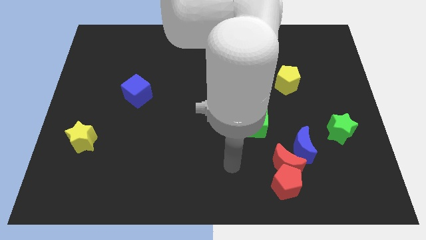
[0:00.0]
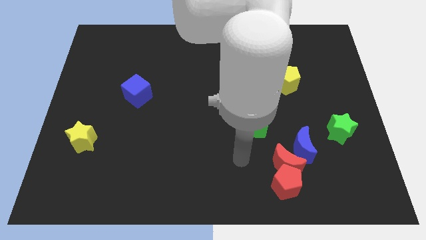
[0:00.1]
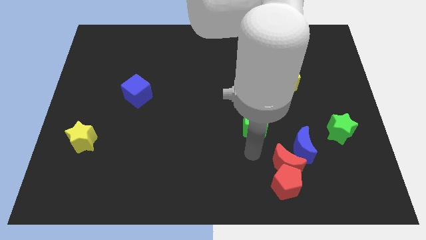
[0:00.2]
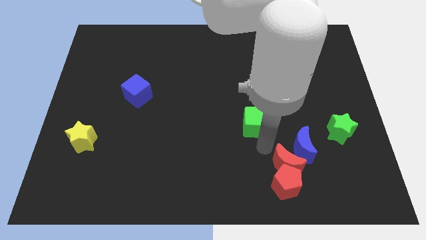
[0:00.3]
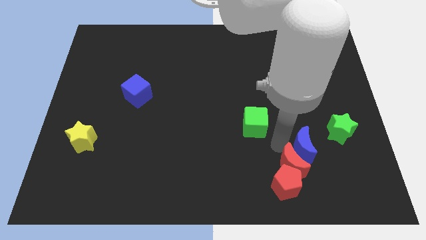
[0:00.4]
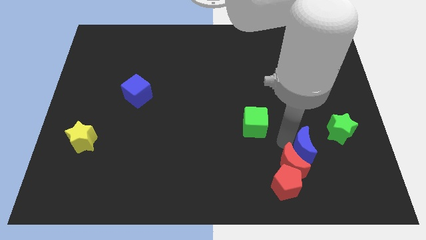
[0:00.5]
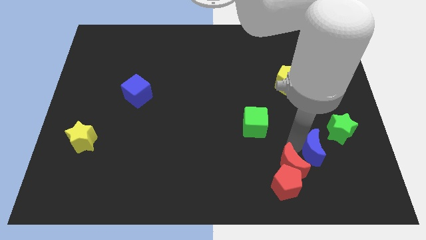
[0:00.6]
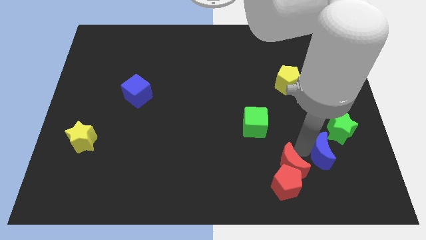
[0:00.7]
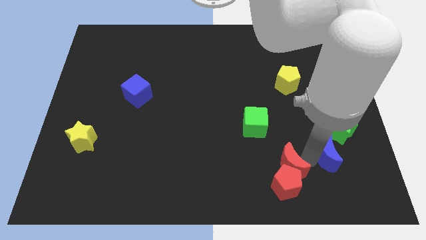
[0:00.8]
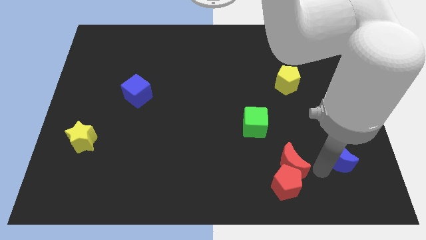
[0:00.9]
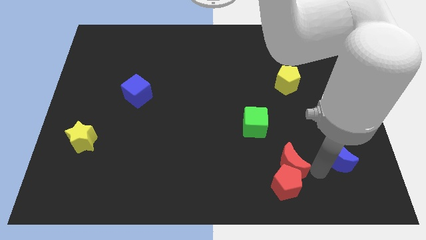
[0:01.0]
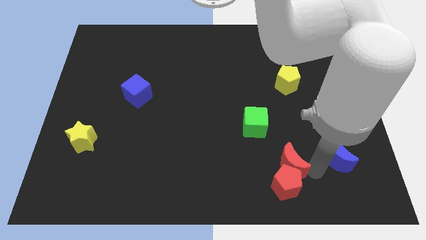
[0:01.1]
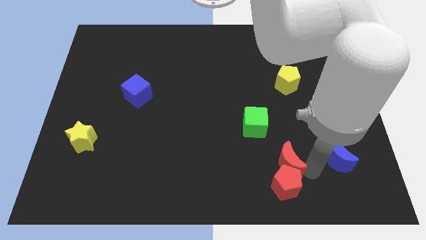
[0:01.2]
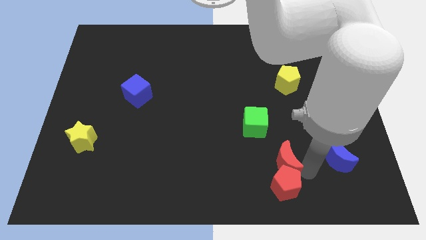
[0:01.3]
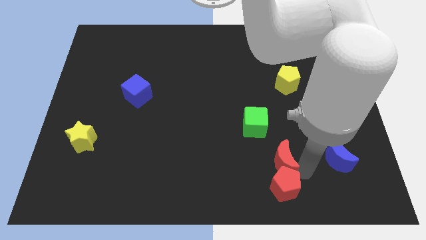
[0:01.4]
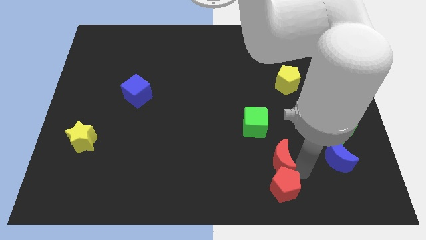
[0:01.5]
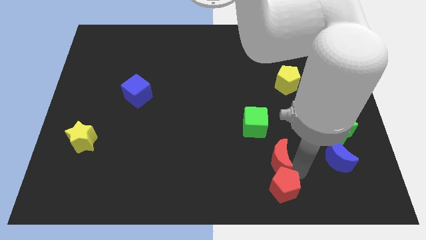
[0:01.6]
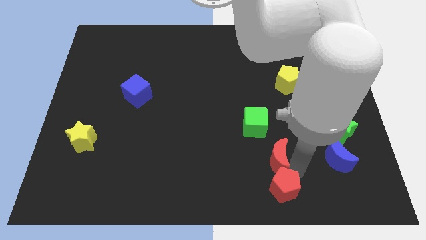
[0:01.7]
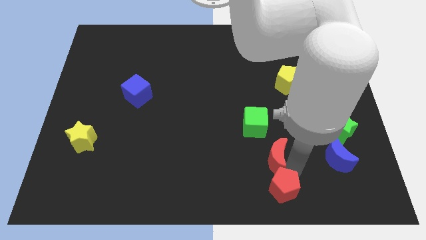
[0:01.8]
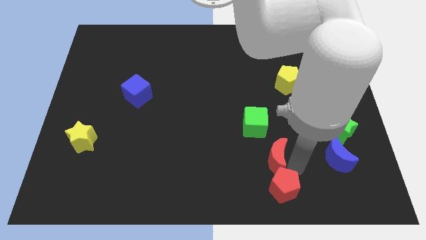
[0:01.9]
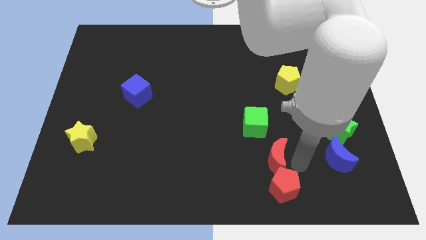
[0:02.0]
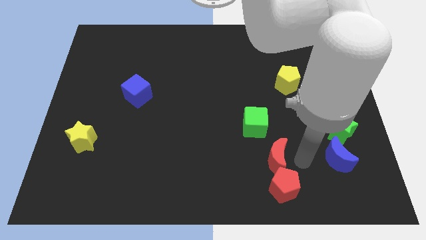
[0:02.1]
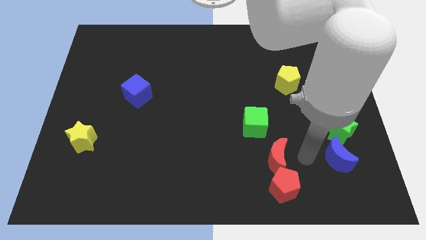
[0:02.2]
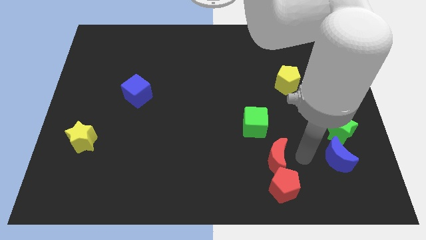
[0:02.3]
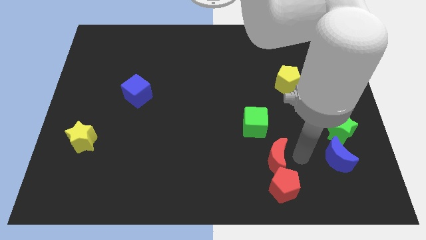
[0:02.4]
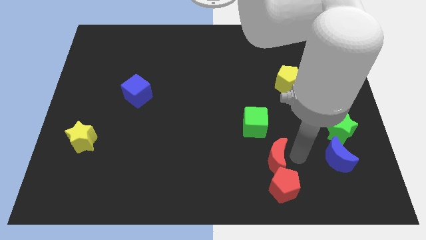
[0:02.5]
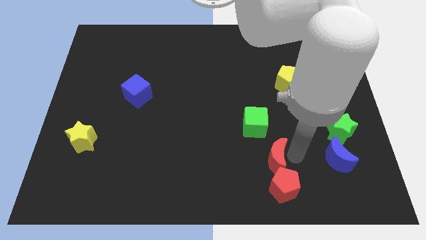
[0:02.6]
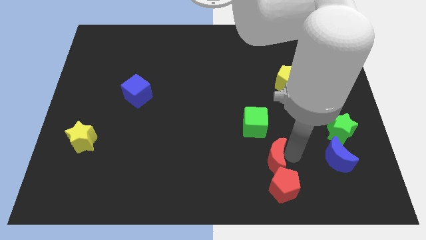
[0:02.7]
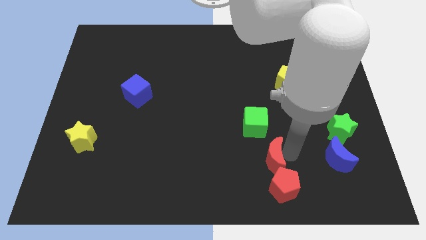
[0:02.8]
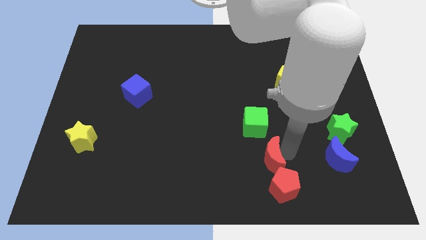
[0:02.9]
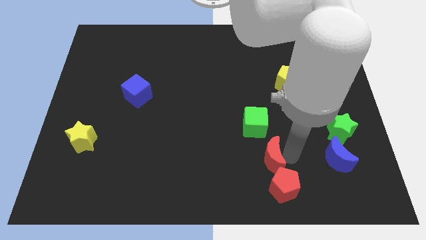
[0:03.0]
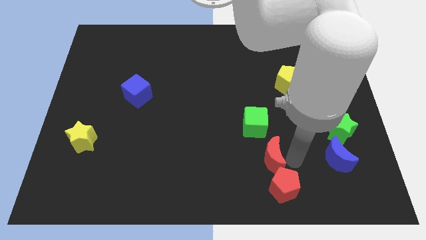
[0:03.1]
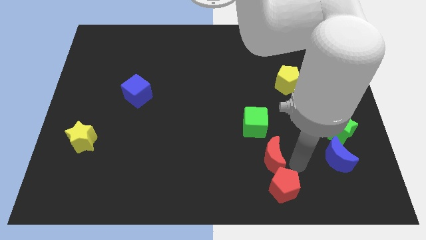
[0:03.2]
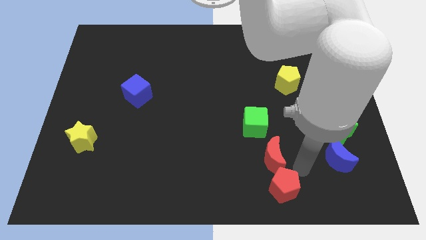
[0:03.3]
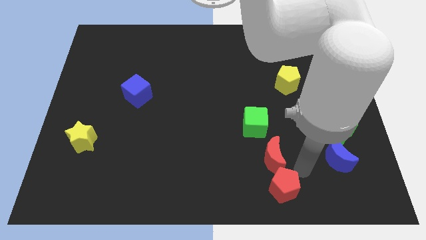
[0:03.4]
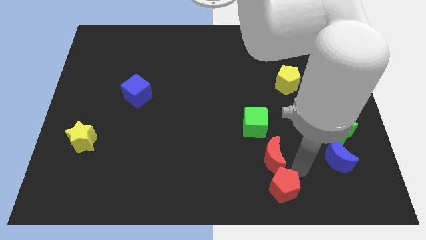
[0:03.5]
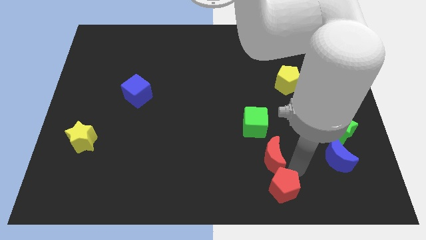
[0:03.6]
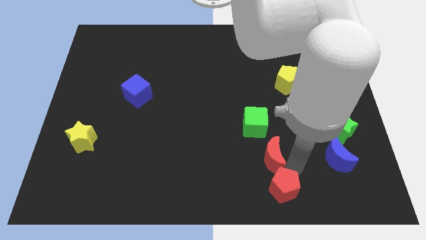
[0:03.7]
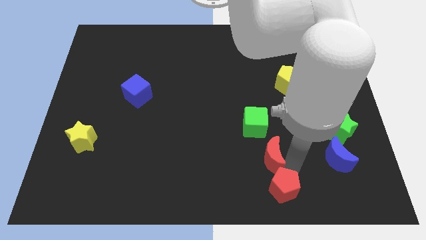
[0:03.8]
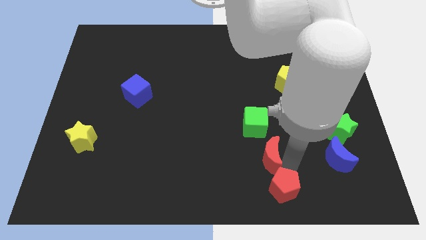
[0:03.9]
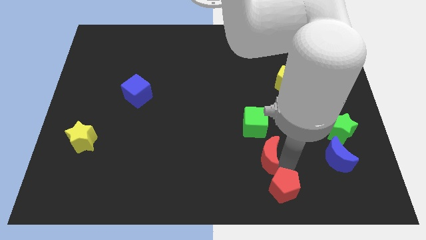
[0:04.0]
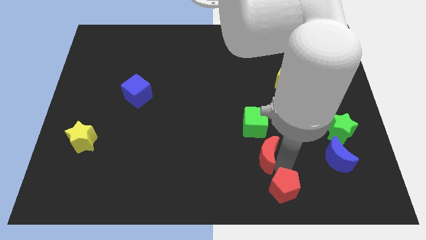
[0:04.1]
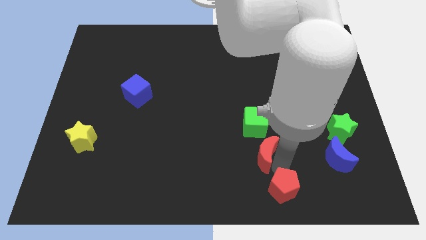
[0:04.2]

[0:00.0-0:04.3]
move the red moon away from the red pentagon and blue moon

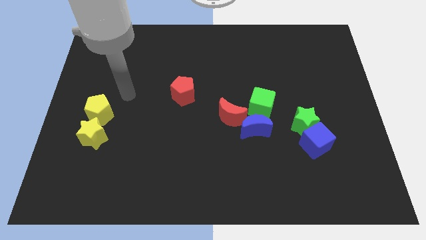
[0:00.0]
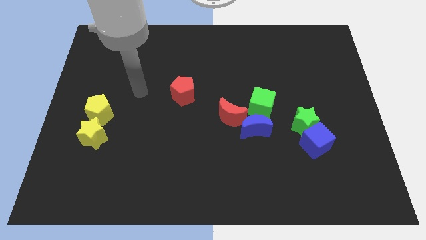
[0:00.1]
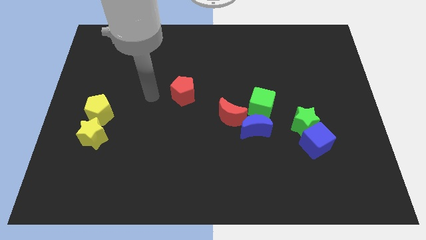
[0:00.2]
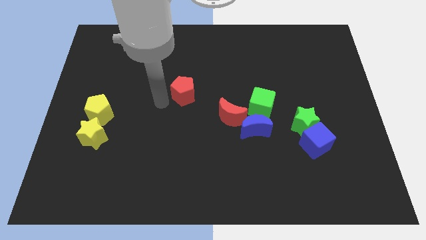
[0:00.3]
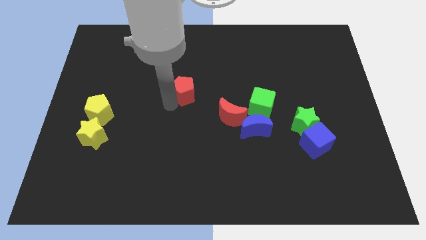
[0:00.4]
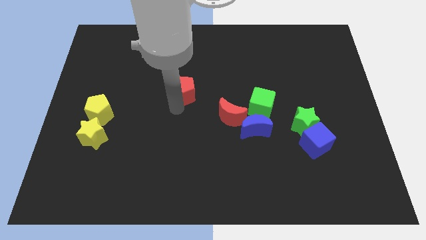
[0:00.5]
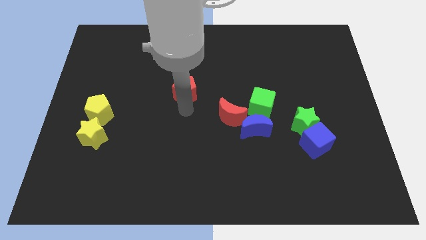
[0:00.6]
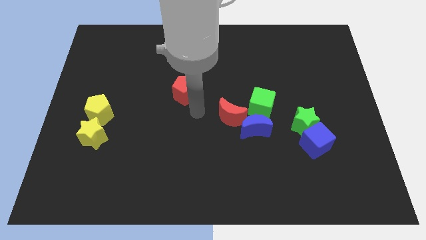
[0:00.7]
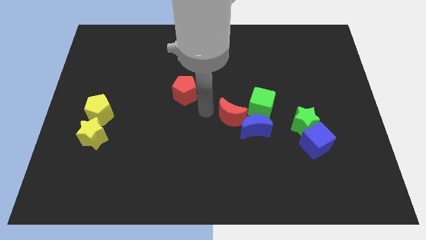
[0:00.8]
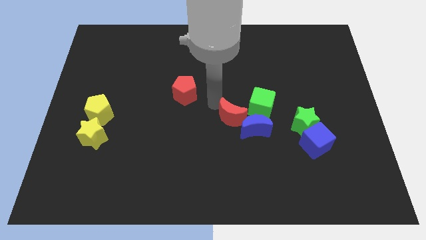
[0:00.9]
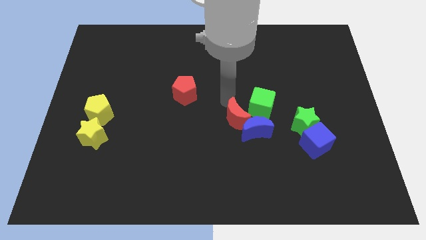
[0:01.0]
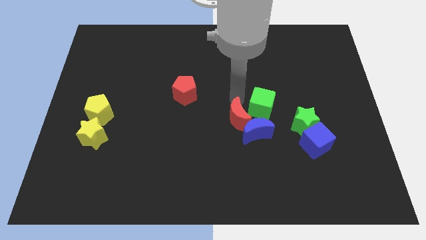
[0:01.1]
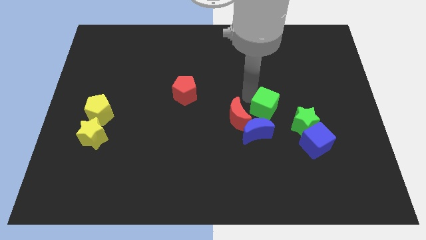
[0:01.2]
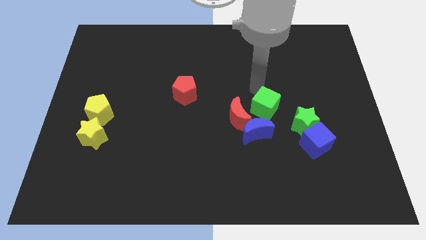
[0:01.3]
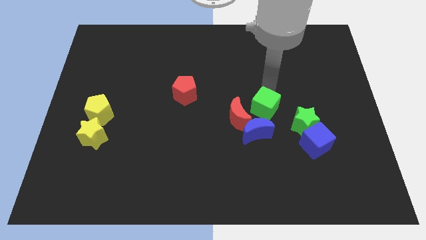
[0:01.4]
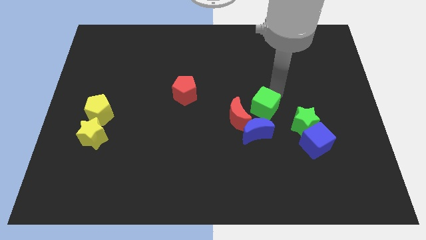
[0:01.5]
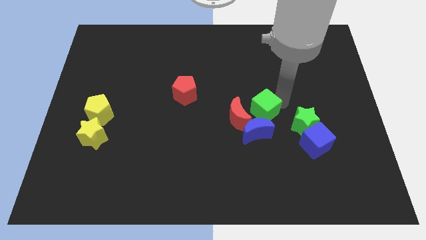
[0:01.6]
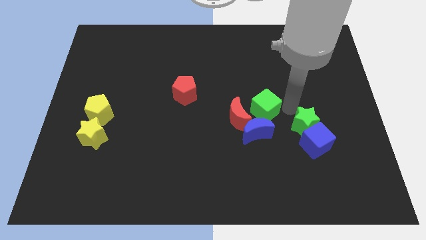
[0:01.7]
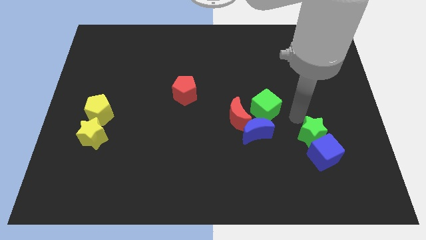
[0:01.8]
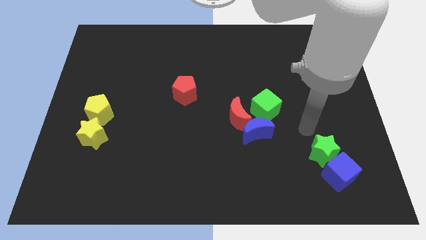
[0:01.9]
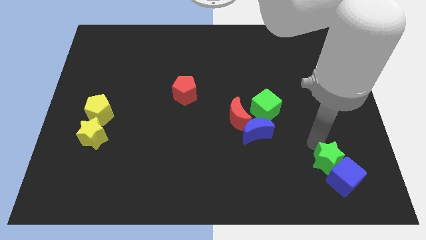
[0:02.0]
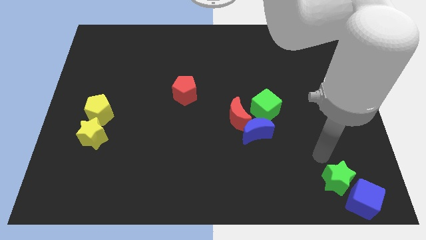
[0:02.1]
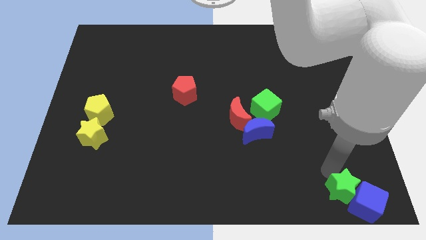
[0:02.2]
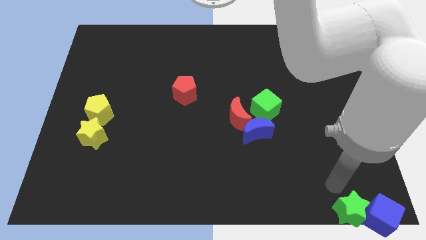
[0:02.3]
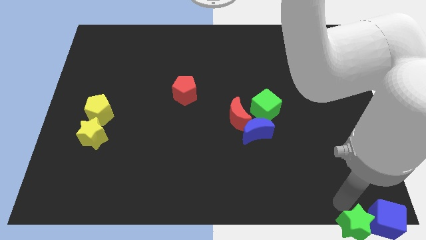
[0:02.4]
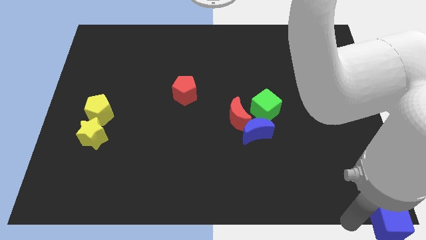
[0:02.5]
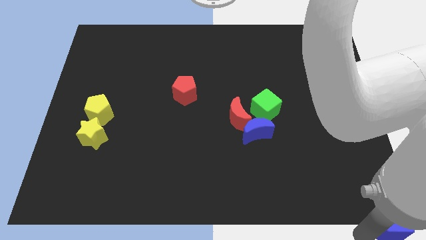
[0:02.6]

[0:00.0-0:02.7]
move the blue cube away from the green star

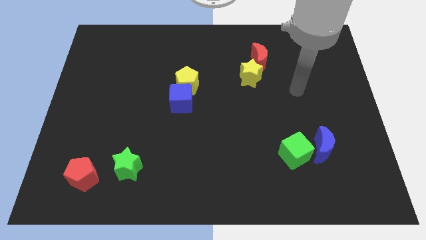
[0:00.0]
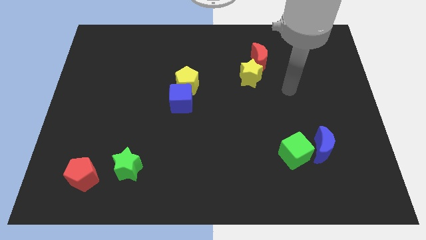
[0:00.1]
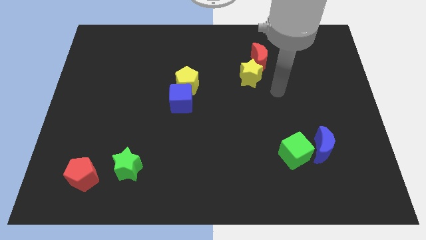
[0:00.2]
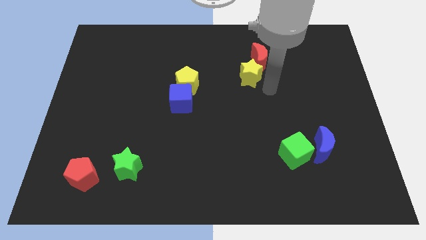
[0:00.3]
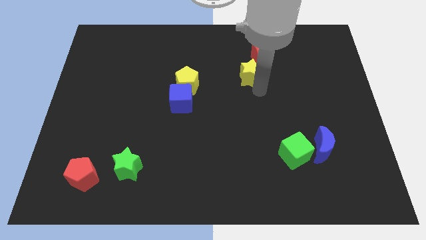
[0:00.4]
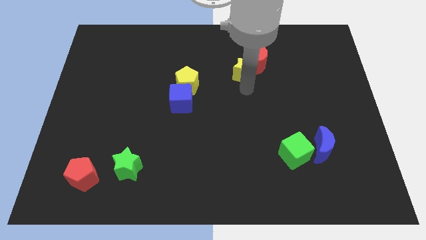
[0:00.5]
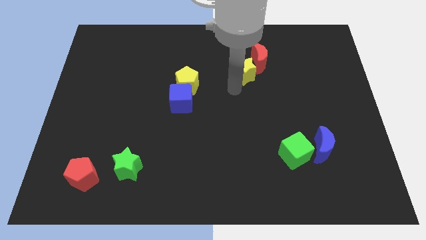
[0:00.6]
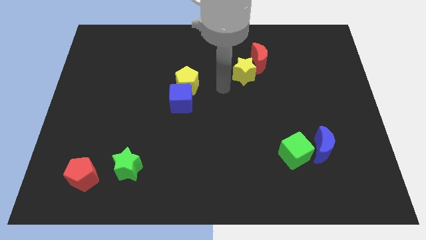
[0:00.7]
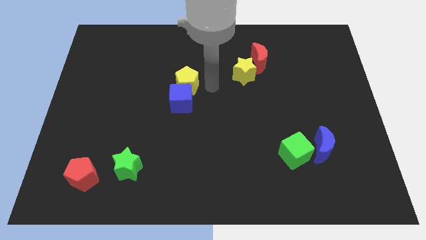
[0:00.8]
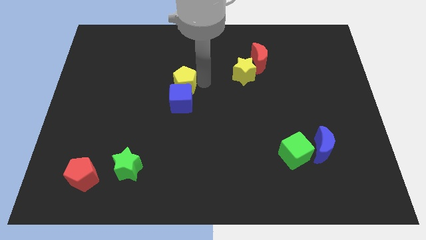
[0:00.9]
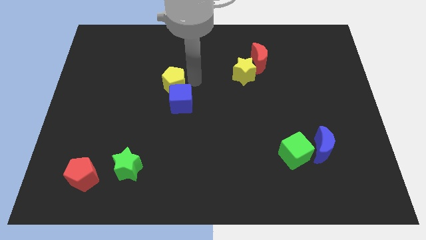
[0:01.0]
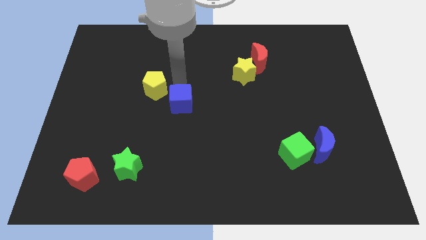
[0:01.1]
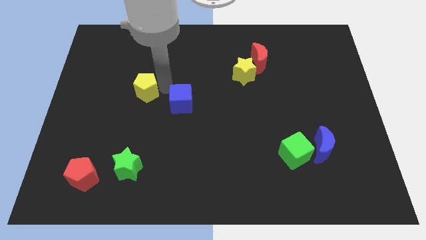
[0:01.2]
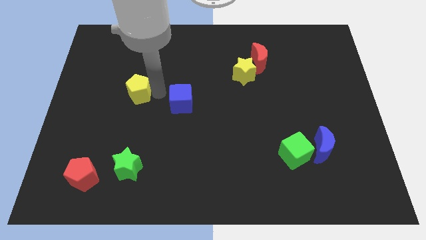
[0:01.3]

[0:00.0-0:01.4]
move the blue cube away from the yellow pentagon

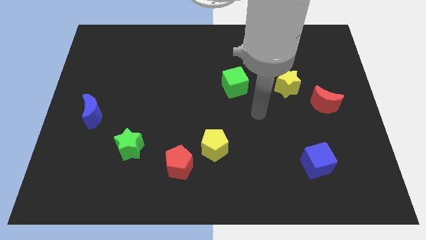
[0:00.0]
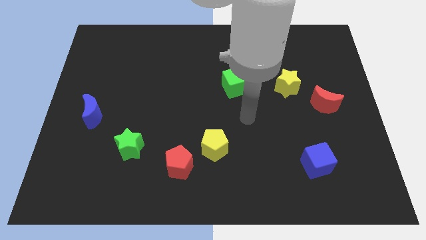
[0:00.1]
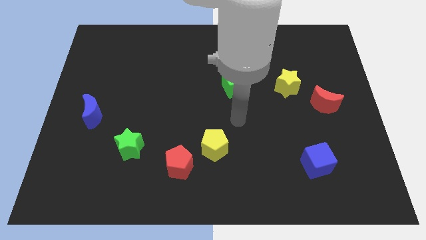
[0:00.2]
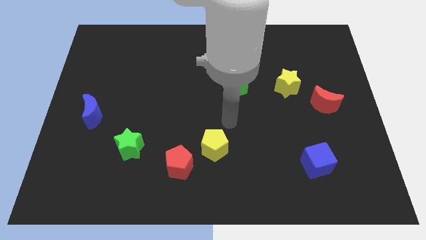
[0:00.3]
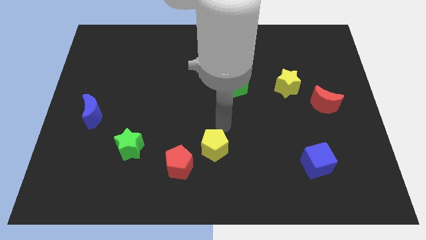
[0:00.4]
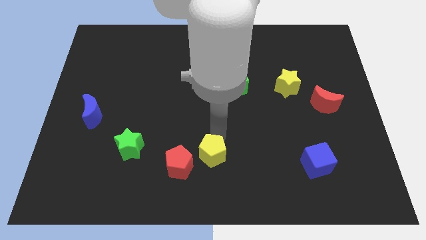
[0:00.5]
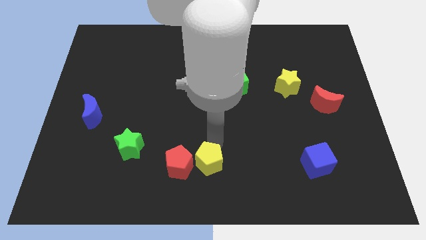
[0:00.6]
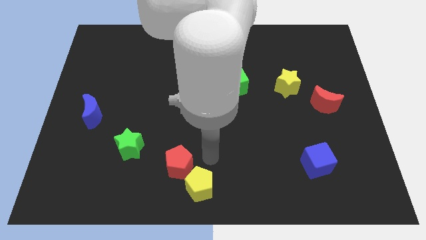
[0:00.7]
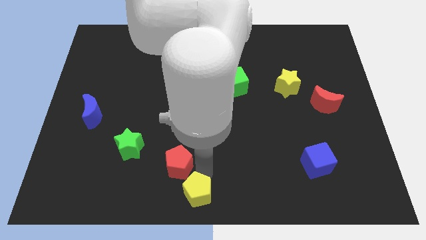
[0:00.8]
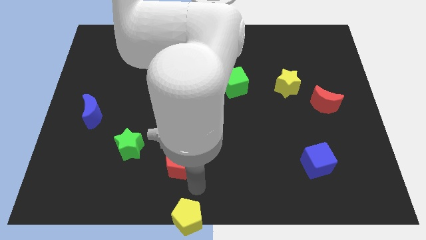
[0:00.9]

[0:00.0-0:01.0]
pull the red pentagon apart from the yellow pentagon
